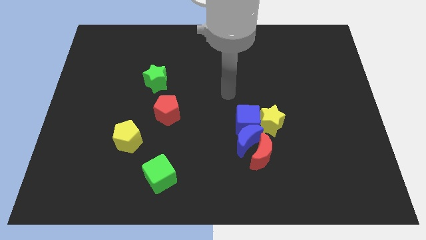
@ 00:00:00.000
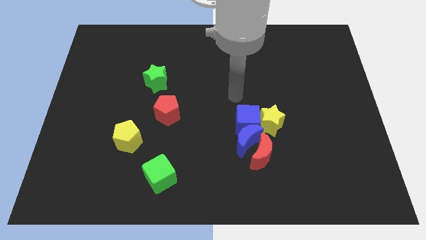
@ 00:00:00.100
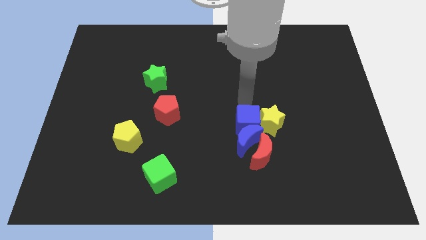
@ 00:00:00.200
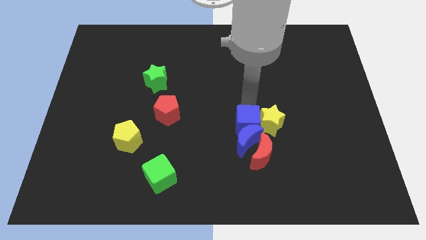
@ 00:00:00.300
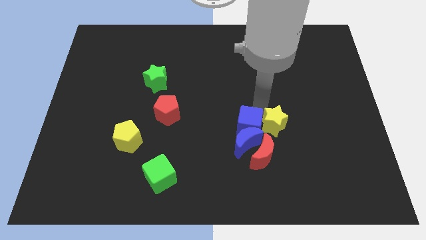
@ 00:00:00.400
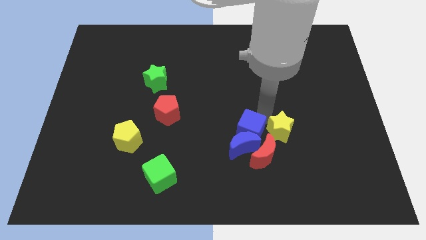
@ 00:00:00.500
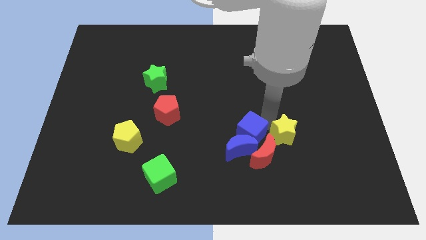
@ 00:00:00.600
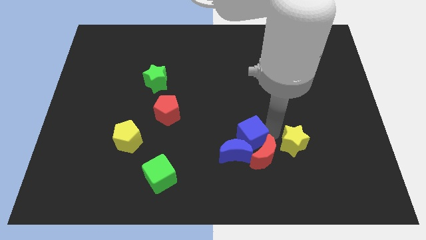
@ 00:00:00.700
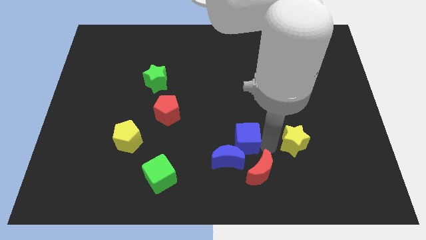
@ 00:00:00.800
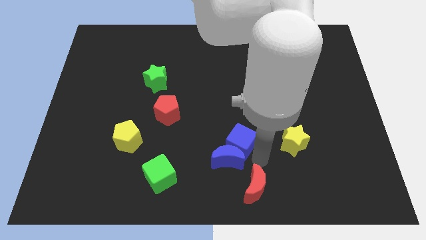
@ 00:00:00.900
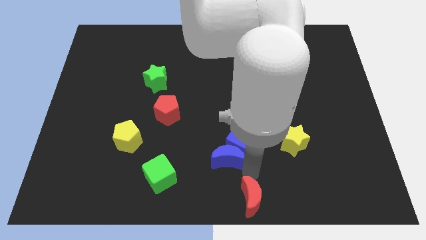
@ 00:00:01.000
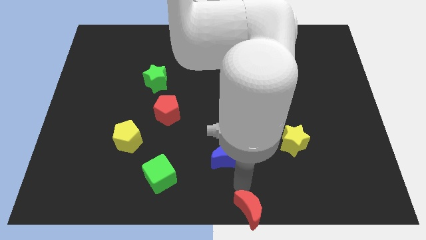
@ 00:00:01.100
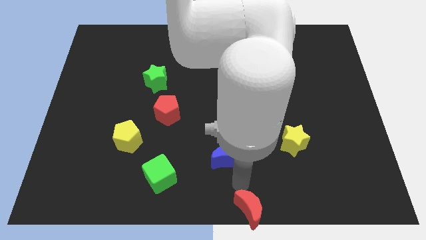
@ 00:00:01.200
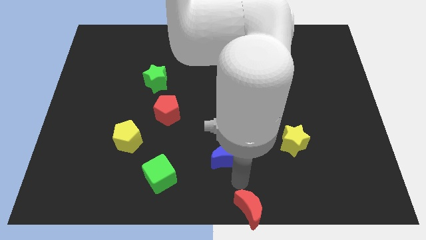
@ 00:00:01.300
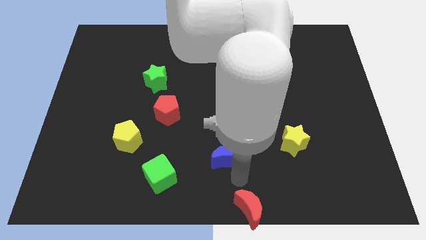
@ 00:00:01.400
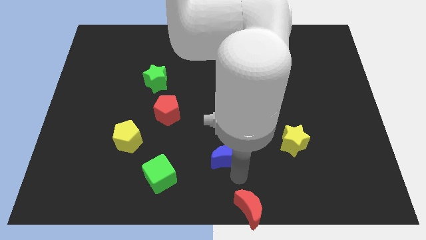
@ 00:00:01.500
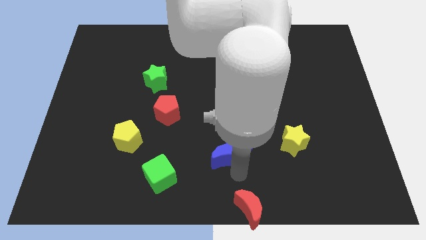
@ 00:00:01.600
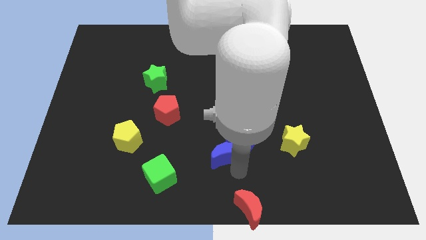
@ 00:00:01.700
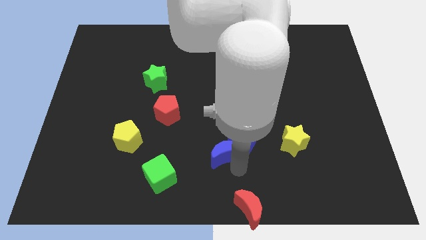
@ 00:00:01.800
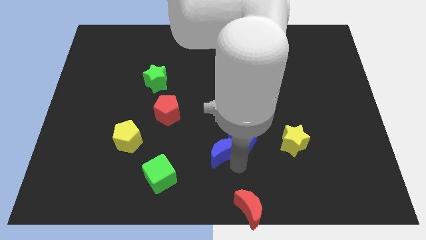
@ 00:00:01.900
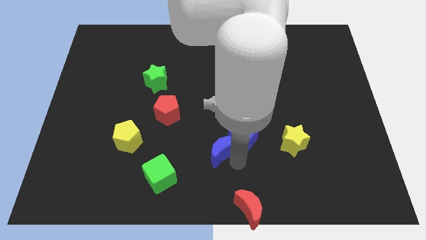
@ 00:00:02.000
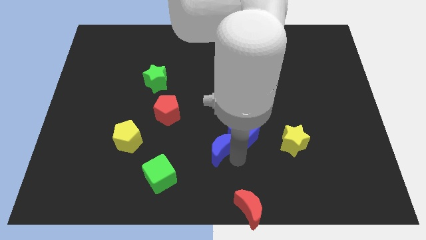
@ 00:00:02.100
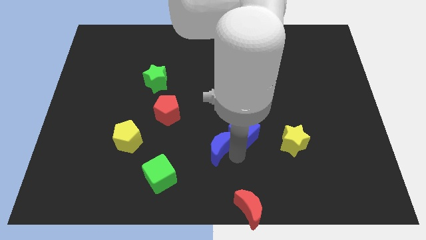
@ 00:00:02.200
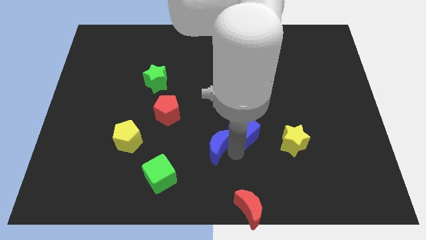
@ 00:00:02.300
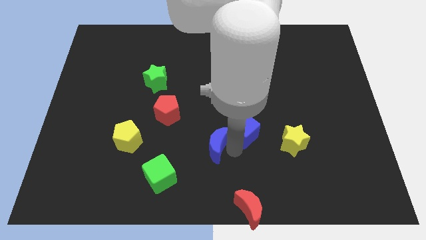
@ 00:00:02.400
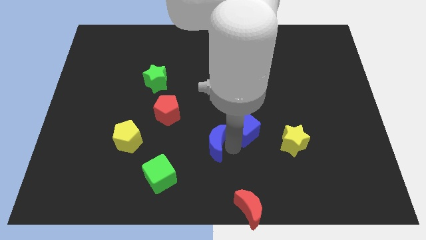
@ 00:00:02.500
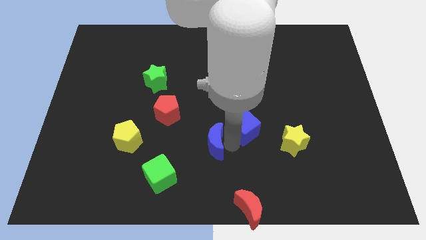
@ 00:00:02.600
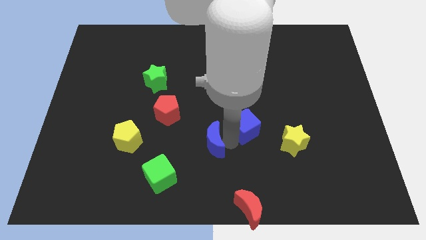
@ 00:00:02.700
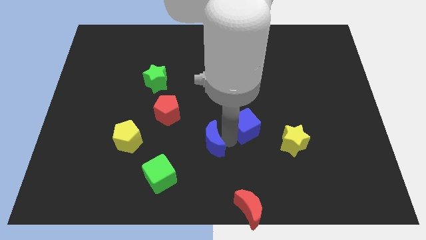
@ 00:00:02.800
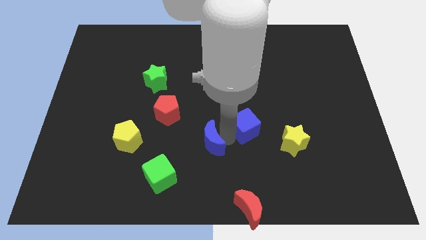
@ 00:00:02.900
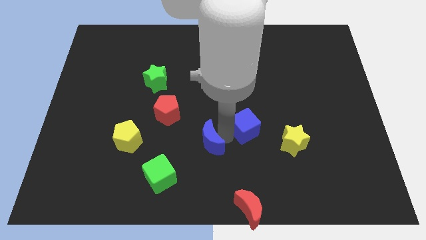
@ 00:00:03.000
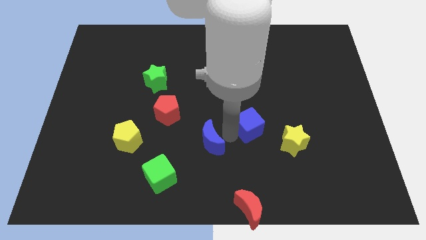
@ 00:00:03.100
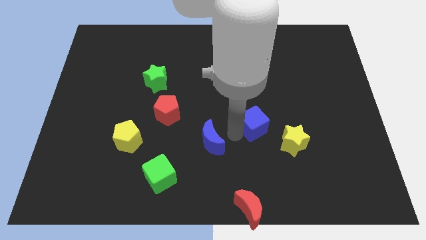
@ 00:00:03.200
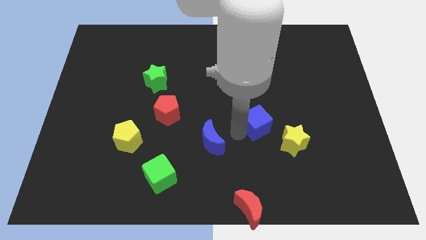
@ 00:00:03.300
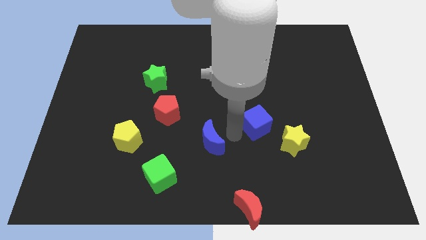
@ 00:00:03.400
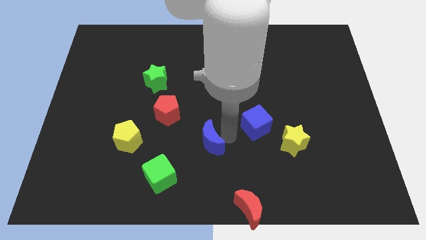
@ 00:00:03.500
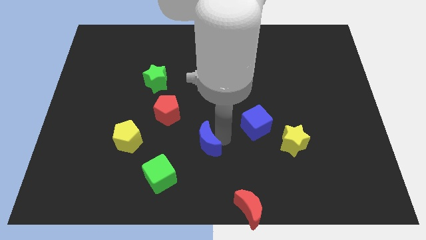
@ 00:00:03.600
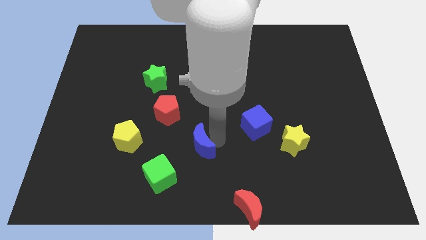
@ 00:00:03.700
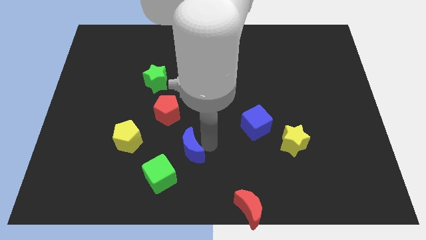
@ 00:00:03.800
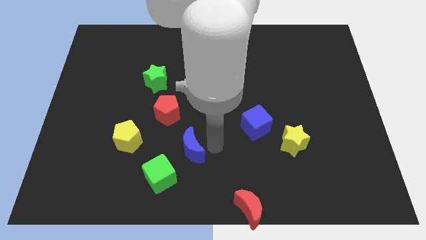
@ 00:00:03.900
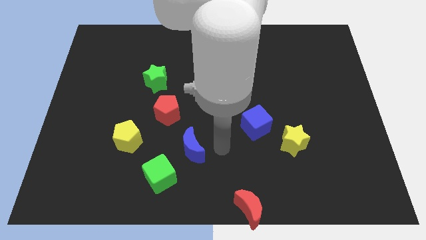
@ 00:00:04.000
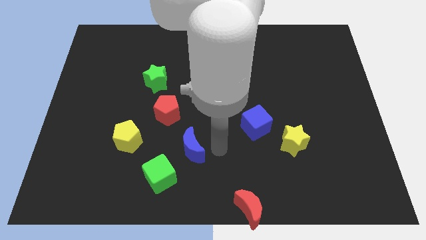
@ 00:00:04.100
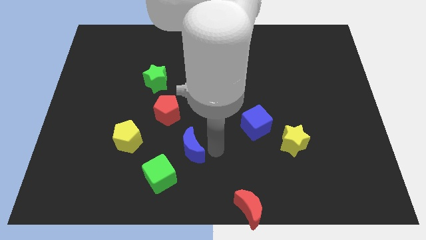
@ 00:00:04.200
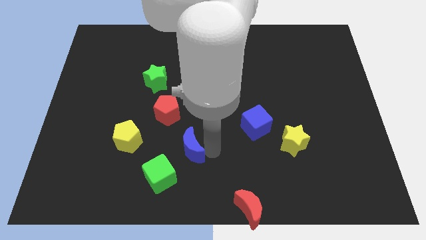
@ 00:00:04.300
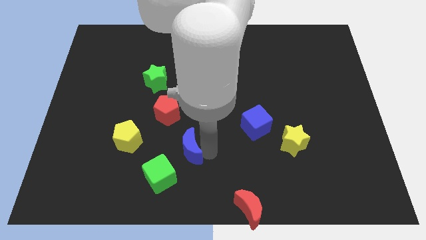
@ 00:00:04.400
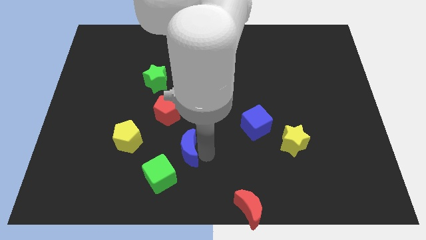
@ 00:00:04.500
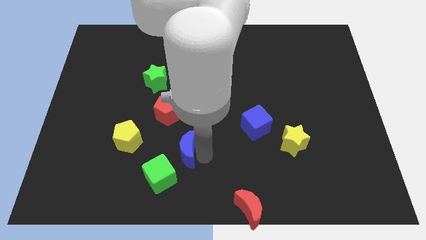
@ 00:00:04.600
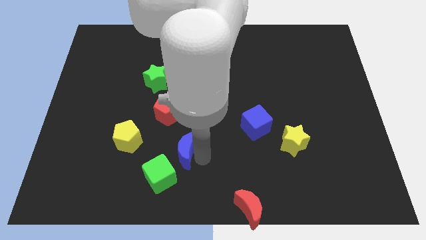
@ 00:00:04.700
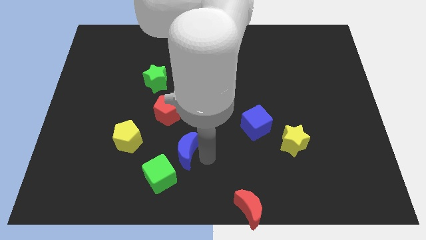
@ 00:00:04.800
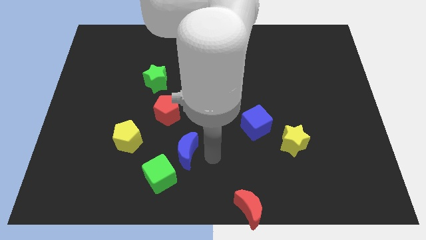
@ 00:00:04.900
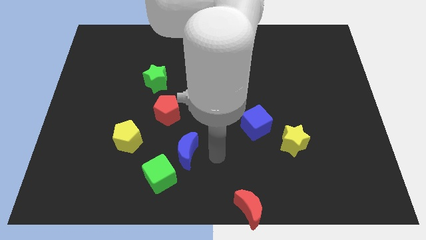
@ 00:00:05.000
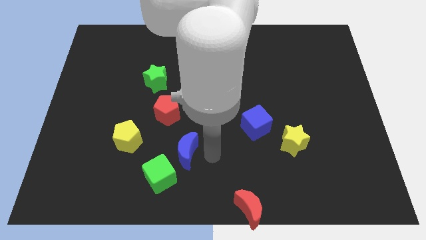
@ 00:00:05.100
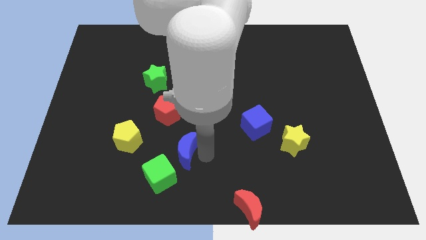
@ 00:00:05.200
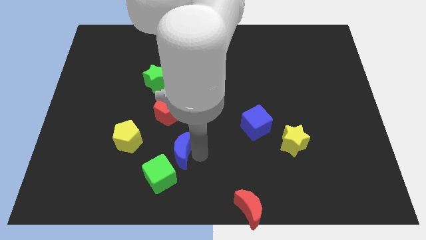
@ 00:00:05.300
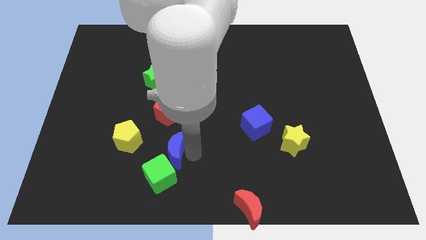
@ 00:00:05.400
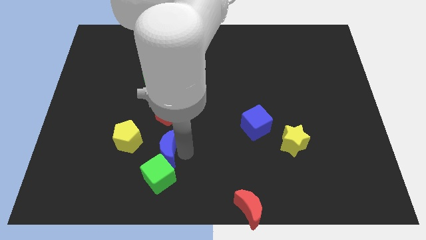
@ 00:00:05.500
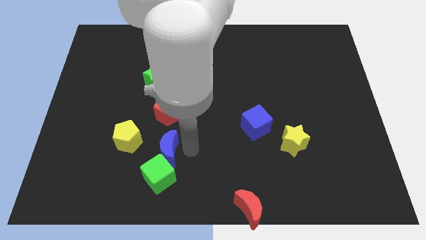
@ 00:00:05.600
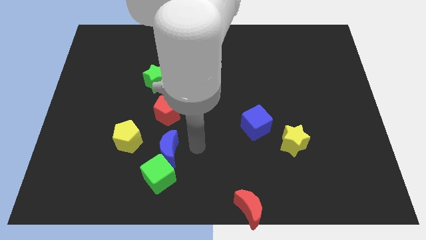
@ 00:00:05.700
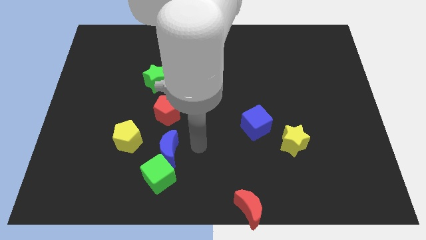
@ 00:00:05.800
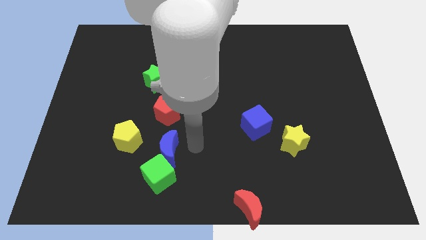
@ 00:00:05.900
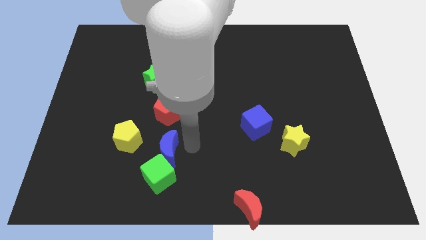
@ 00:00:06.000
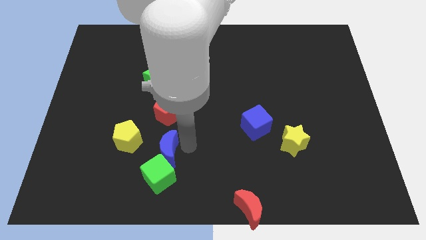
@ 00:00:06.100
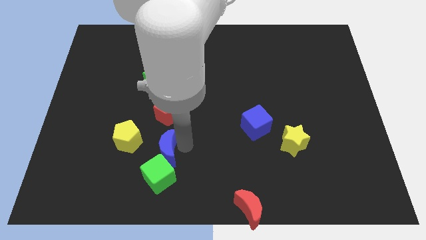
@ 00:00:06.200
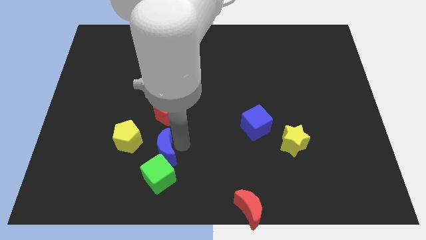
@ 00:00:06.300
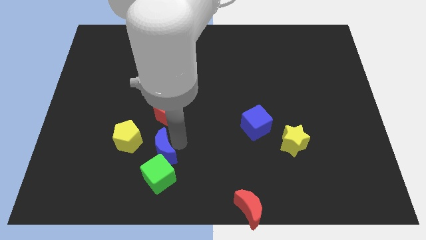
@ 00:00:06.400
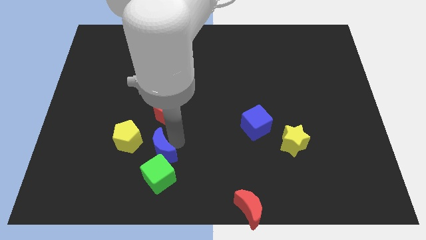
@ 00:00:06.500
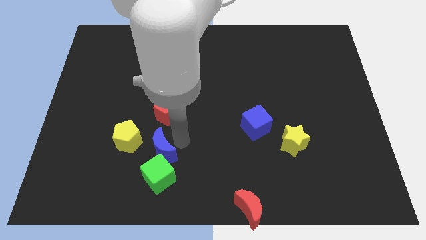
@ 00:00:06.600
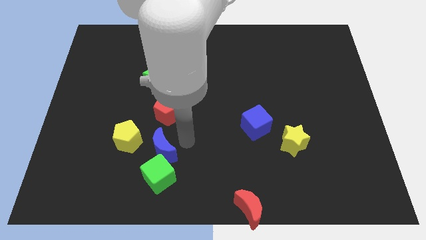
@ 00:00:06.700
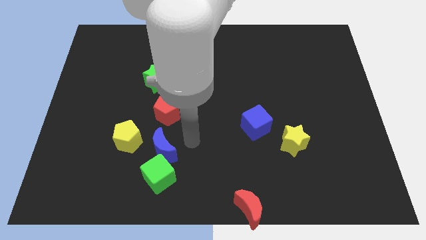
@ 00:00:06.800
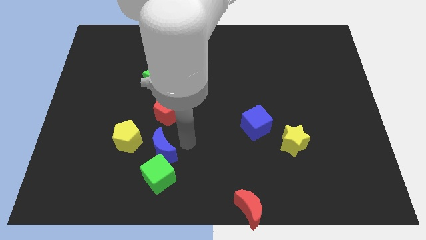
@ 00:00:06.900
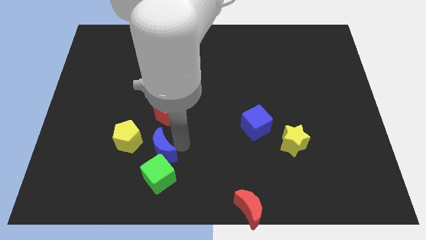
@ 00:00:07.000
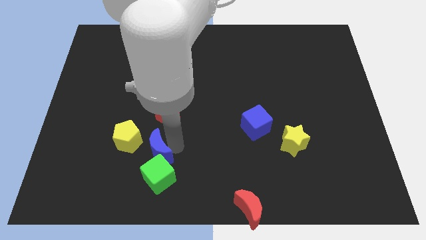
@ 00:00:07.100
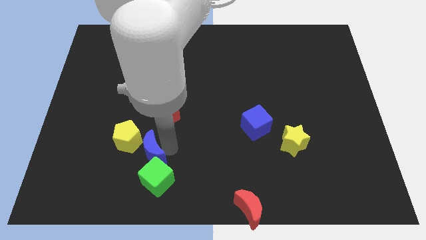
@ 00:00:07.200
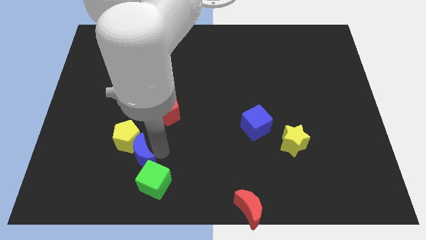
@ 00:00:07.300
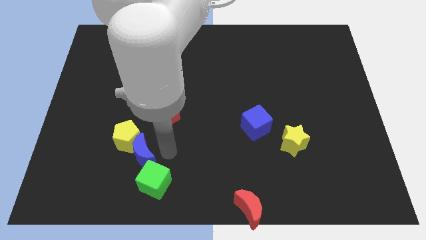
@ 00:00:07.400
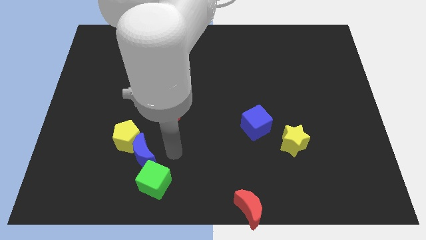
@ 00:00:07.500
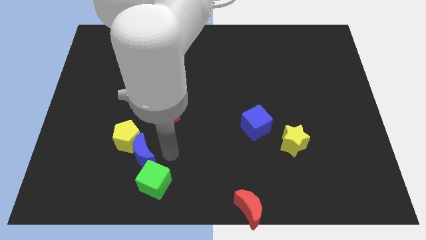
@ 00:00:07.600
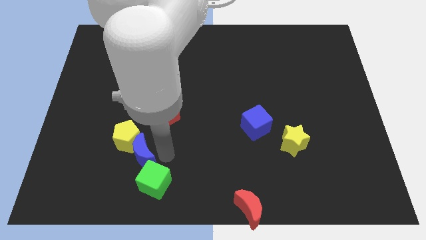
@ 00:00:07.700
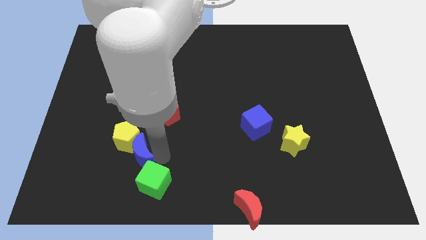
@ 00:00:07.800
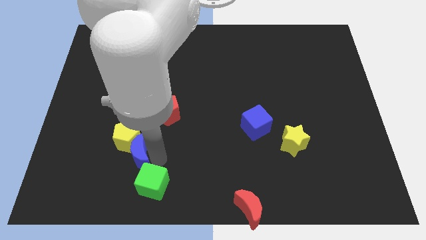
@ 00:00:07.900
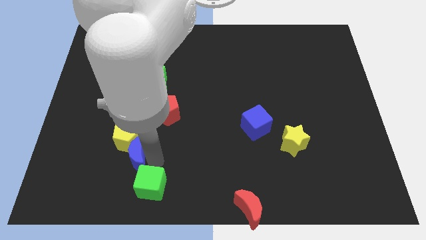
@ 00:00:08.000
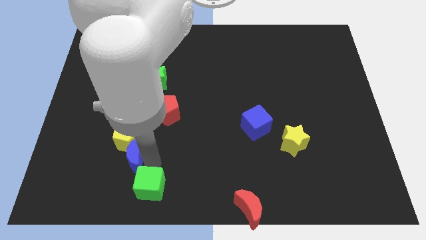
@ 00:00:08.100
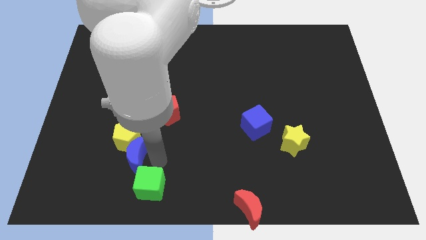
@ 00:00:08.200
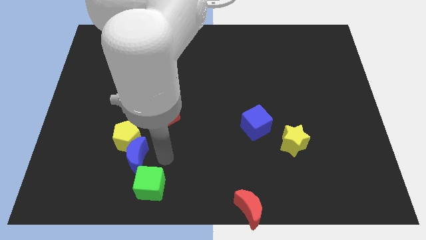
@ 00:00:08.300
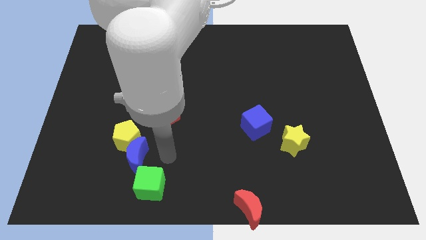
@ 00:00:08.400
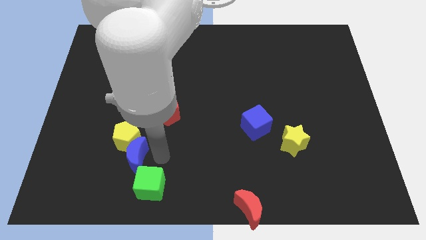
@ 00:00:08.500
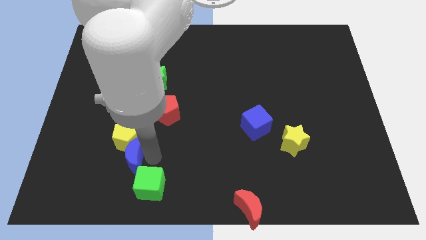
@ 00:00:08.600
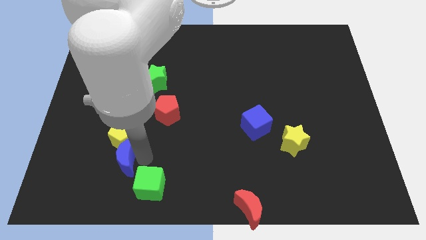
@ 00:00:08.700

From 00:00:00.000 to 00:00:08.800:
push the blue moon diagonally down and to the left of the yellow pentagon
